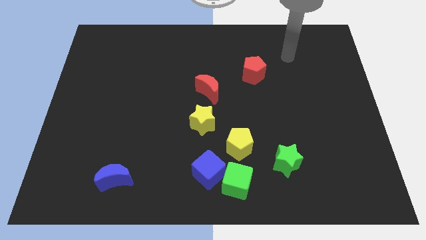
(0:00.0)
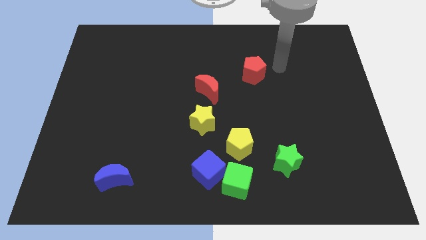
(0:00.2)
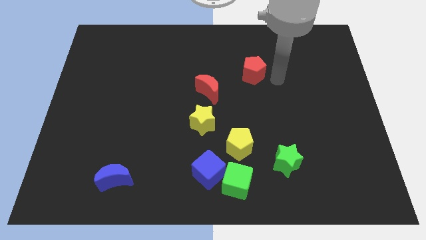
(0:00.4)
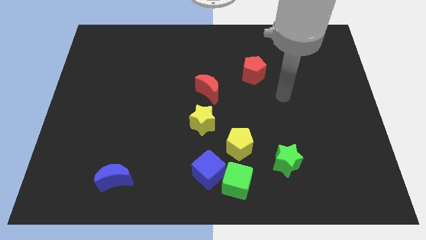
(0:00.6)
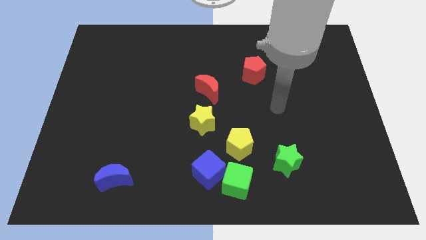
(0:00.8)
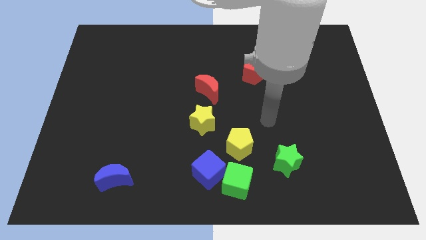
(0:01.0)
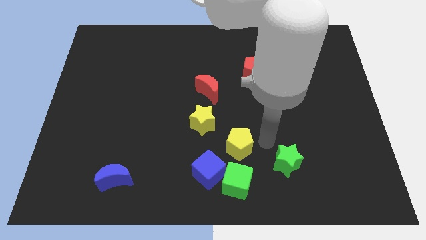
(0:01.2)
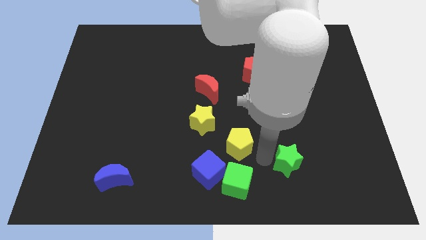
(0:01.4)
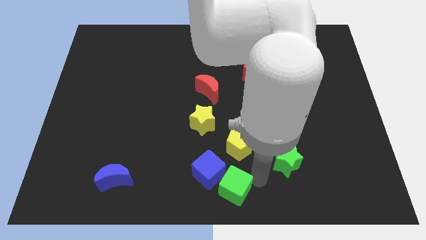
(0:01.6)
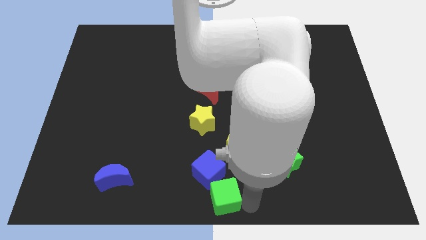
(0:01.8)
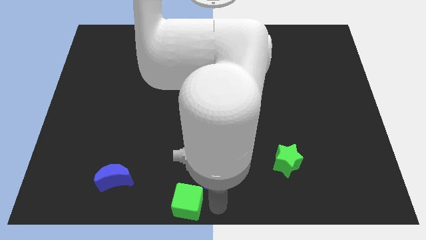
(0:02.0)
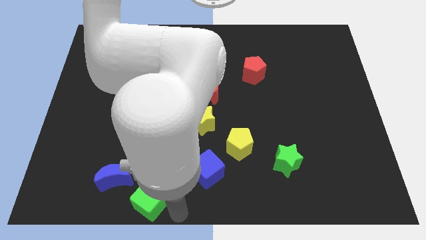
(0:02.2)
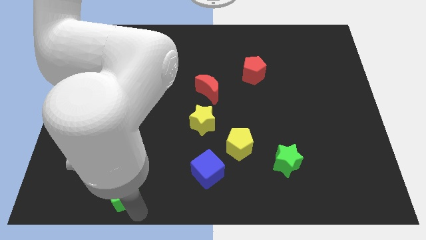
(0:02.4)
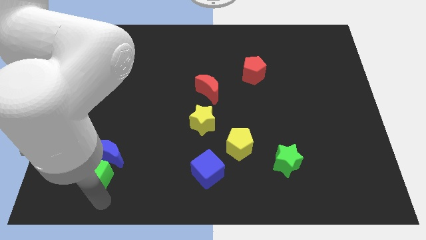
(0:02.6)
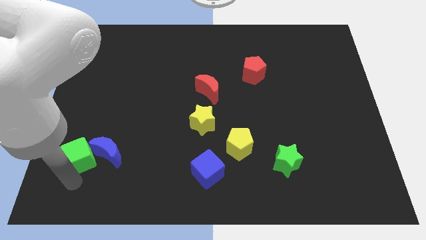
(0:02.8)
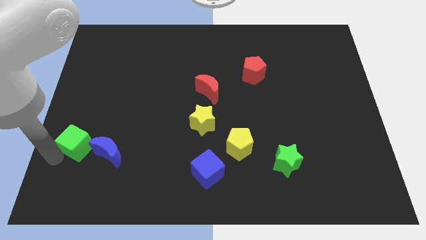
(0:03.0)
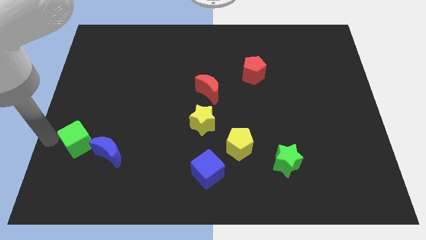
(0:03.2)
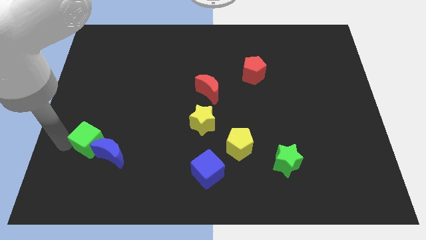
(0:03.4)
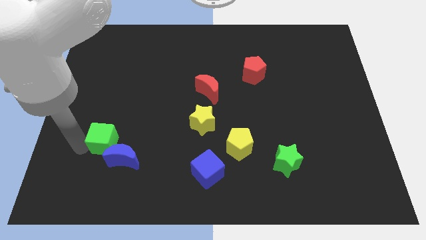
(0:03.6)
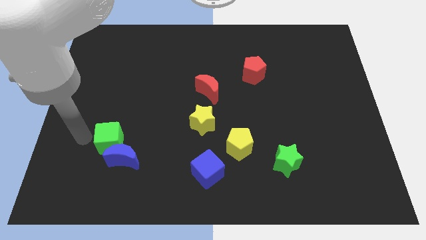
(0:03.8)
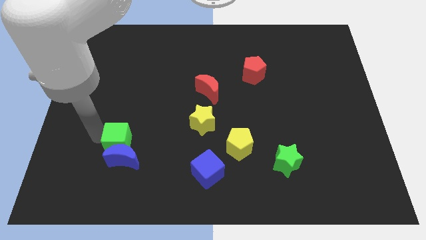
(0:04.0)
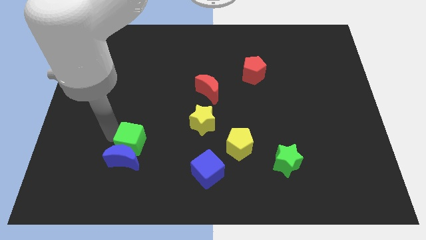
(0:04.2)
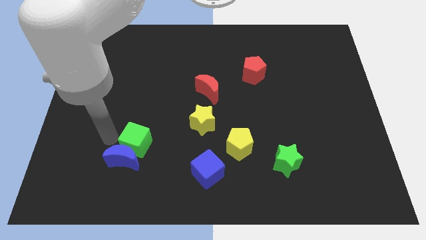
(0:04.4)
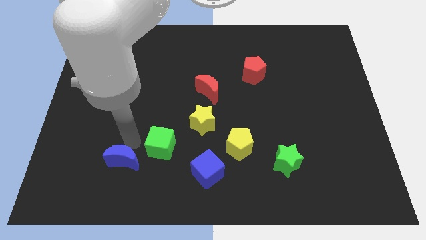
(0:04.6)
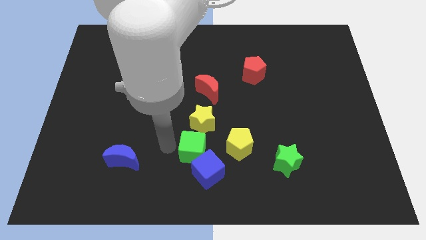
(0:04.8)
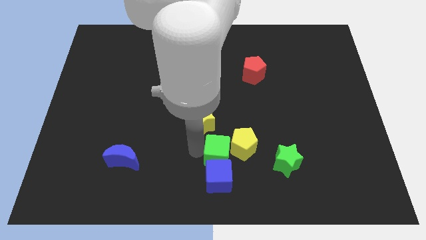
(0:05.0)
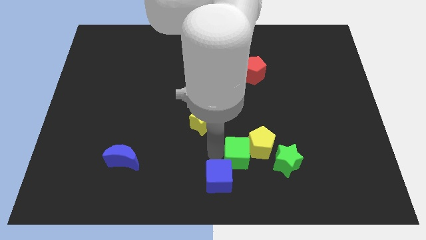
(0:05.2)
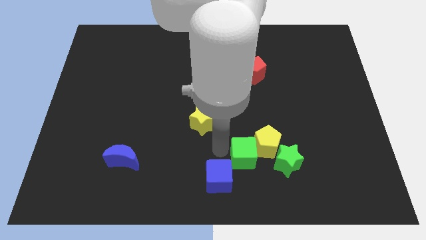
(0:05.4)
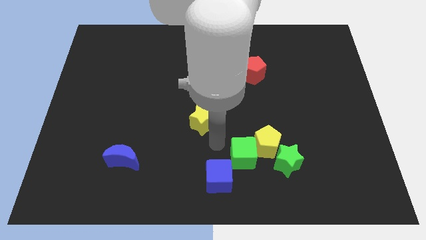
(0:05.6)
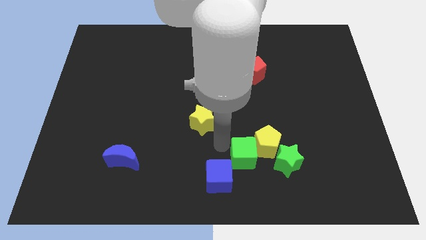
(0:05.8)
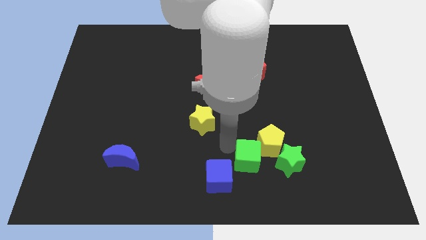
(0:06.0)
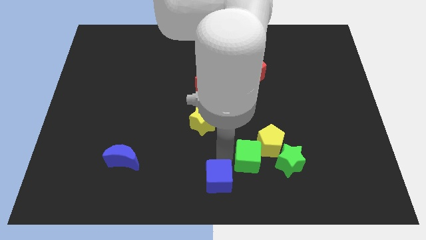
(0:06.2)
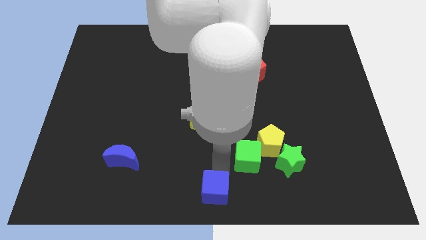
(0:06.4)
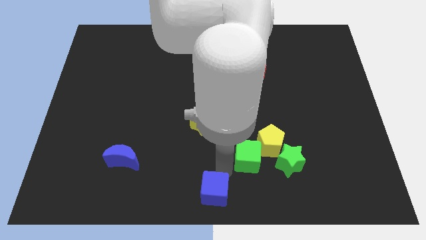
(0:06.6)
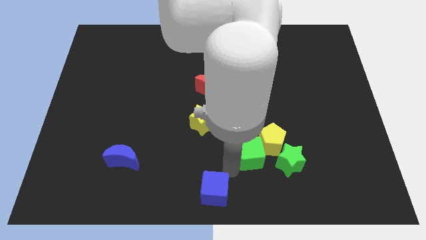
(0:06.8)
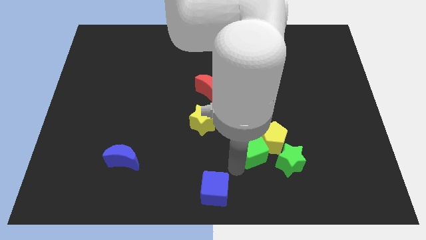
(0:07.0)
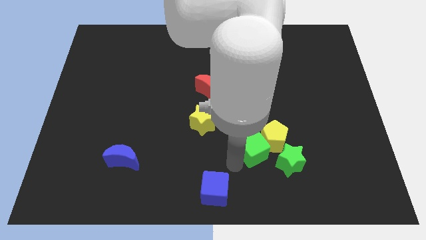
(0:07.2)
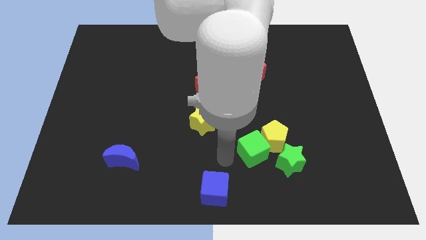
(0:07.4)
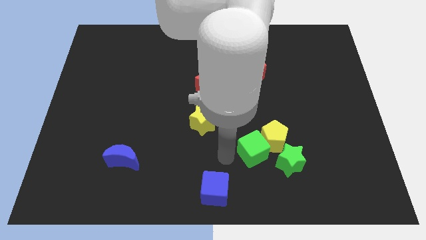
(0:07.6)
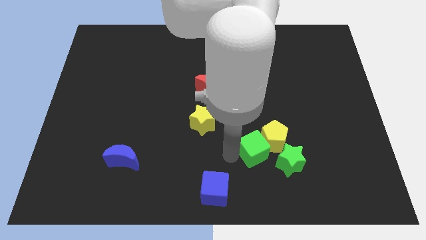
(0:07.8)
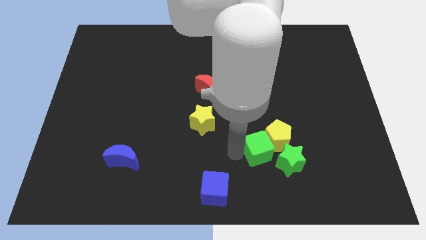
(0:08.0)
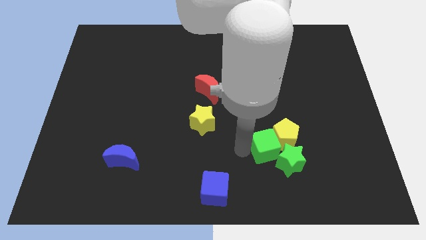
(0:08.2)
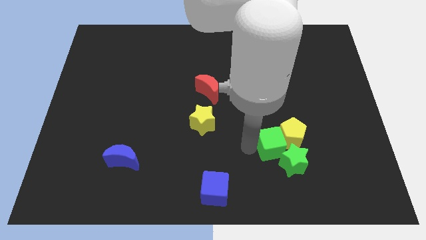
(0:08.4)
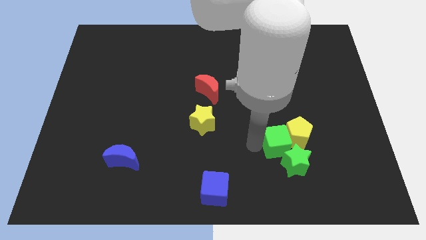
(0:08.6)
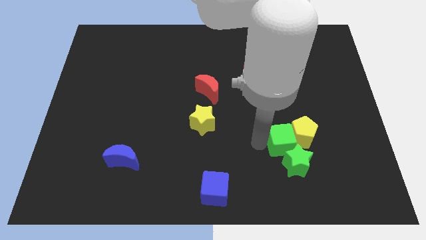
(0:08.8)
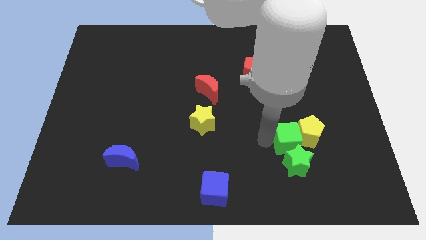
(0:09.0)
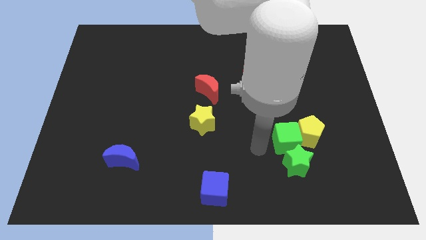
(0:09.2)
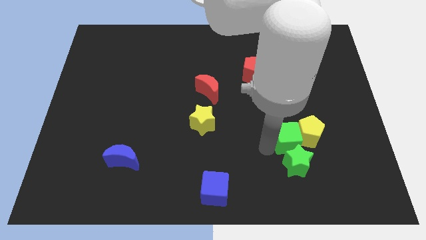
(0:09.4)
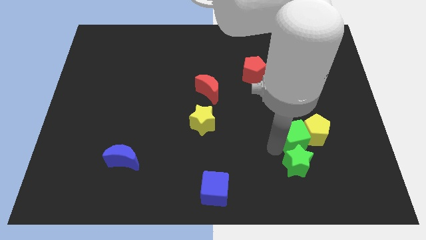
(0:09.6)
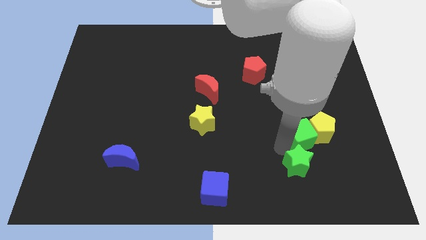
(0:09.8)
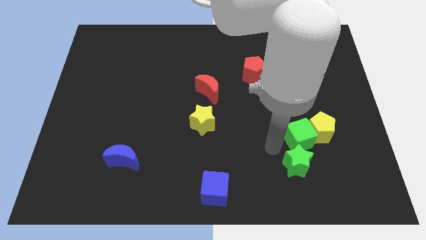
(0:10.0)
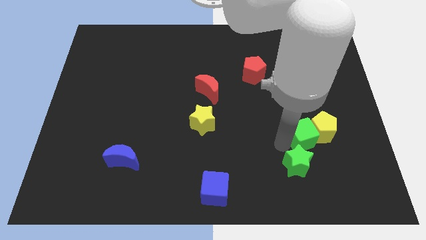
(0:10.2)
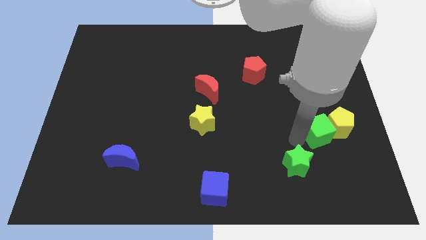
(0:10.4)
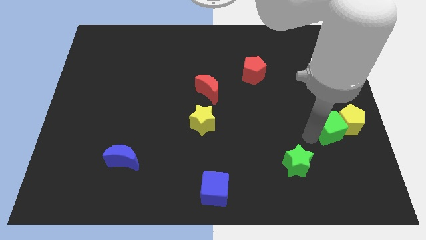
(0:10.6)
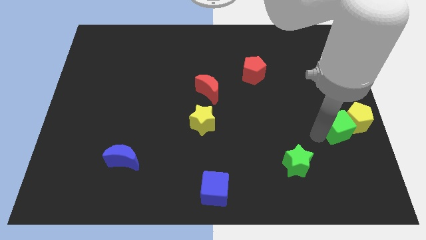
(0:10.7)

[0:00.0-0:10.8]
slide the green cube to the center right

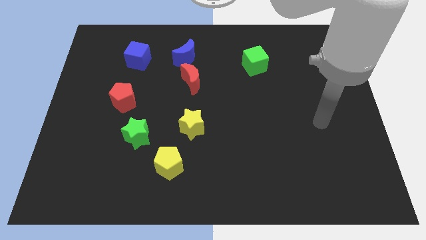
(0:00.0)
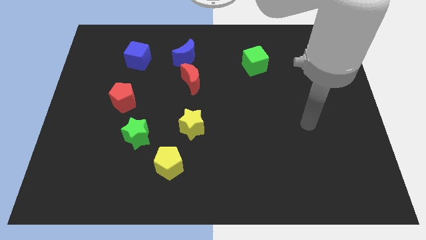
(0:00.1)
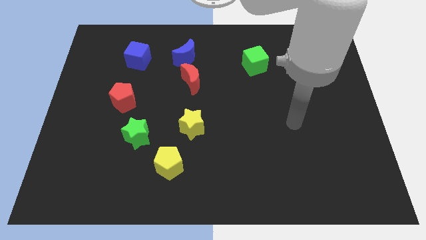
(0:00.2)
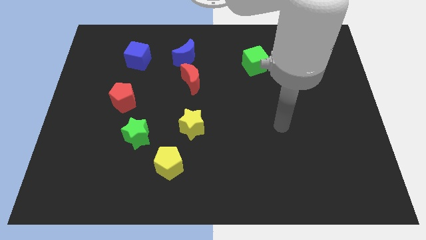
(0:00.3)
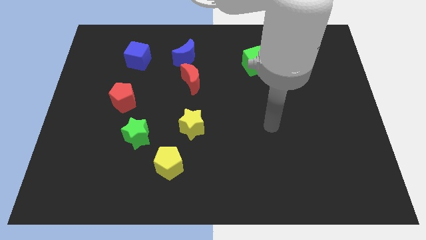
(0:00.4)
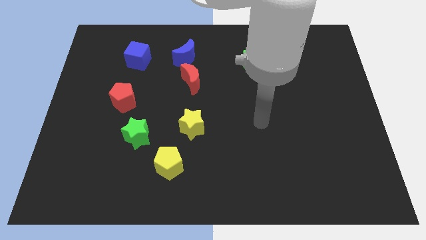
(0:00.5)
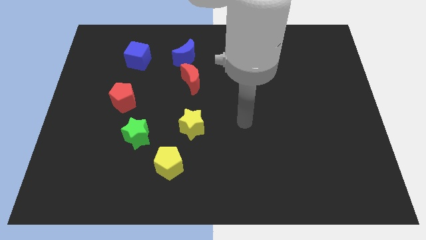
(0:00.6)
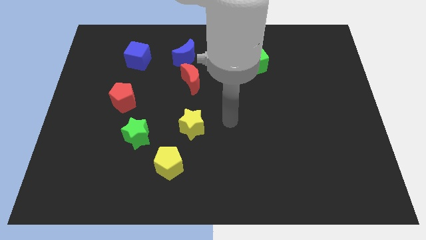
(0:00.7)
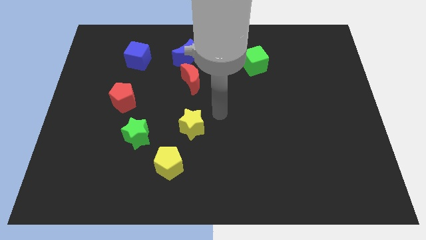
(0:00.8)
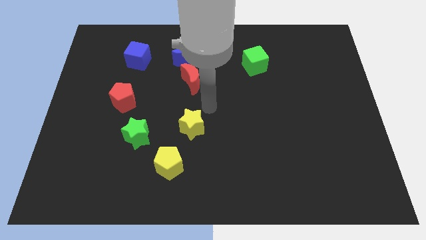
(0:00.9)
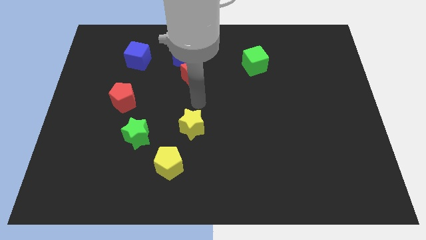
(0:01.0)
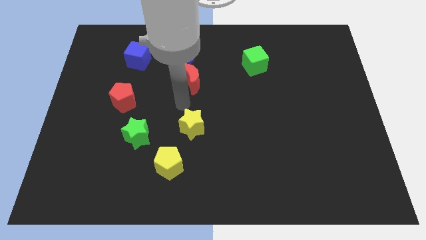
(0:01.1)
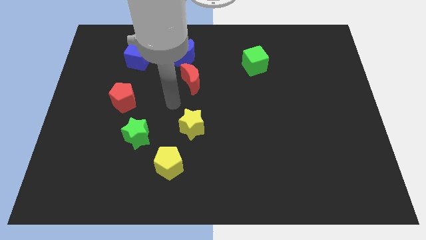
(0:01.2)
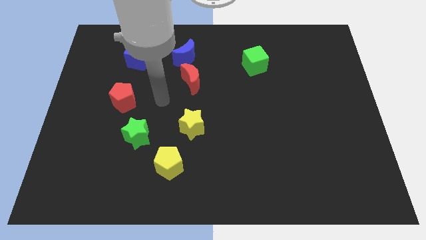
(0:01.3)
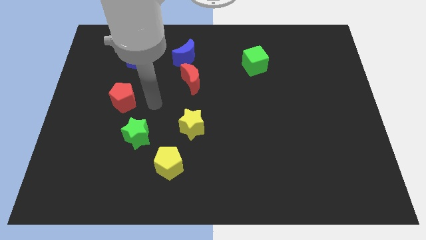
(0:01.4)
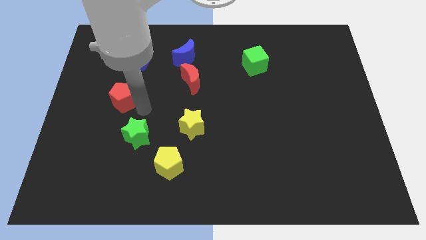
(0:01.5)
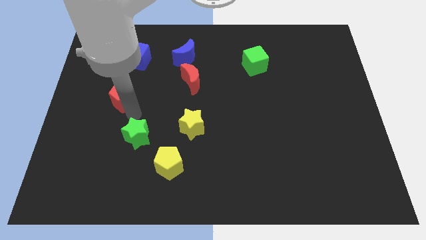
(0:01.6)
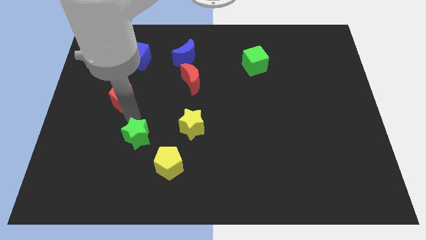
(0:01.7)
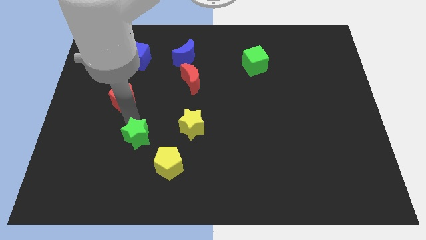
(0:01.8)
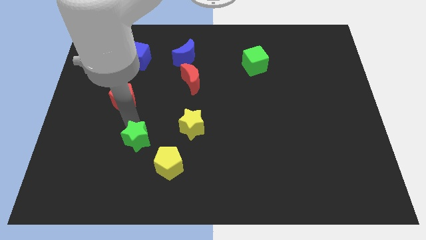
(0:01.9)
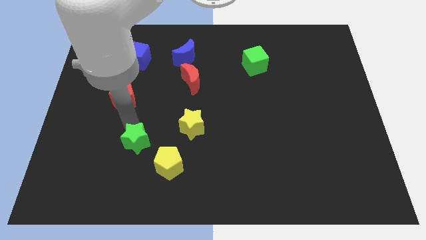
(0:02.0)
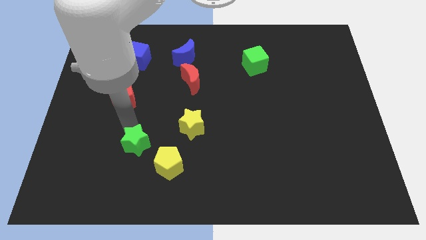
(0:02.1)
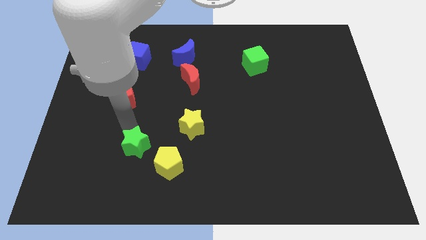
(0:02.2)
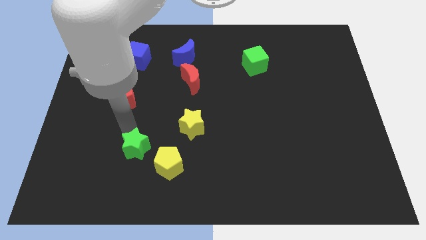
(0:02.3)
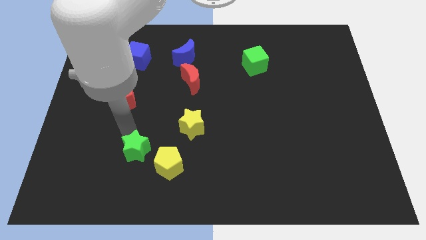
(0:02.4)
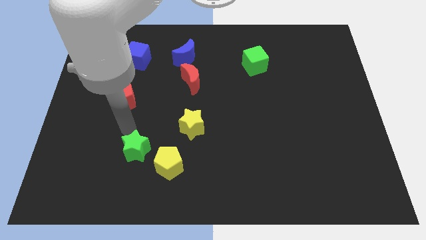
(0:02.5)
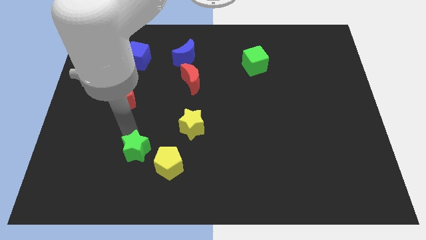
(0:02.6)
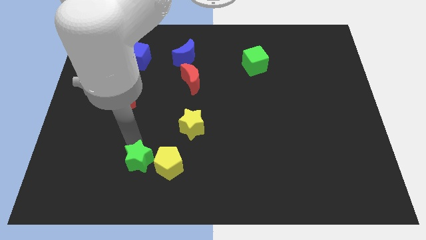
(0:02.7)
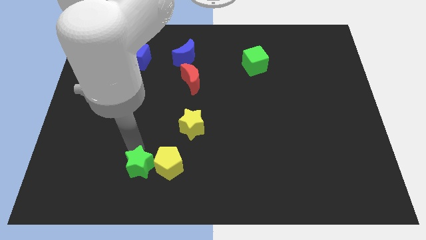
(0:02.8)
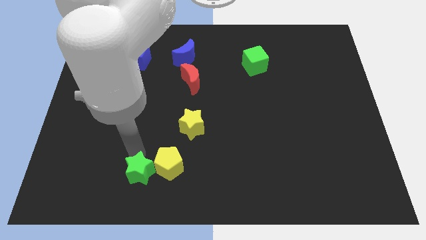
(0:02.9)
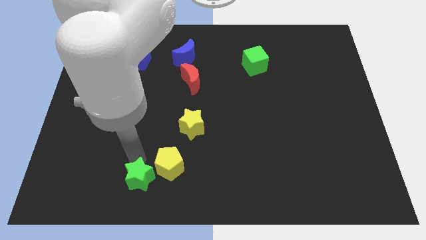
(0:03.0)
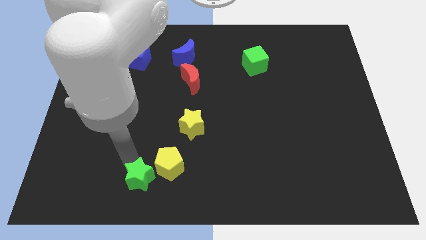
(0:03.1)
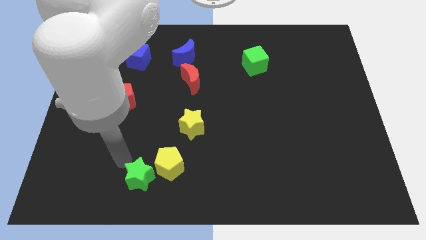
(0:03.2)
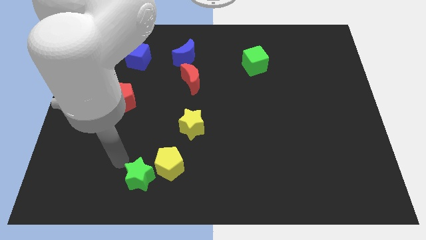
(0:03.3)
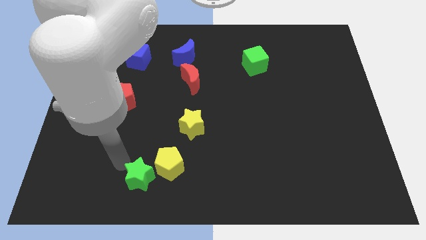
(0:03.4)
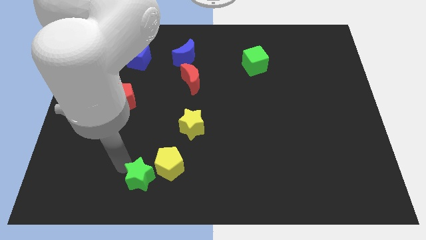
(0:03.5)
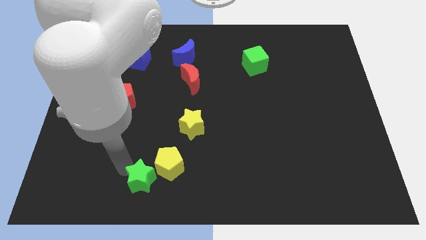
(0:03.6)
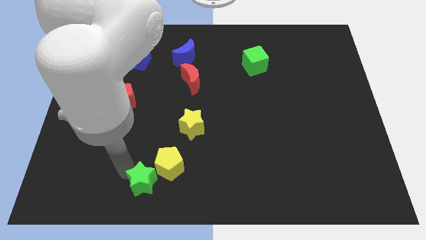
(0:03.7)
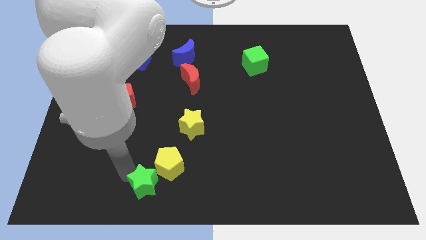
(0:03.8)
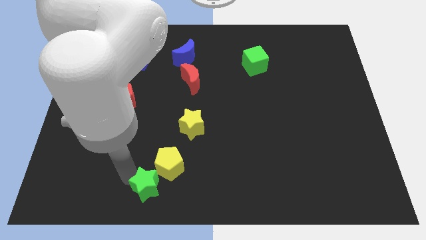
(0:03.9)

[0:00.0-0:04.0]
move the green star to the bottom side
